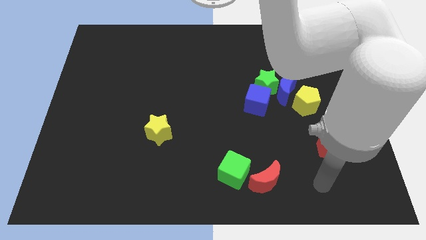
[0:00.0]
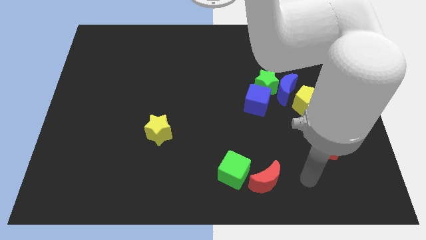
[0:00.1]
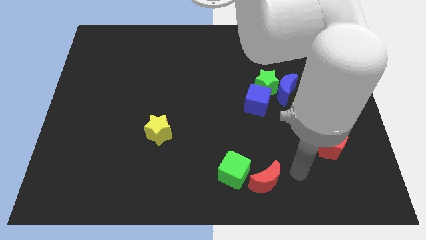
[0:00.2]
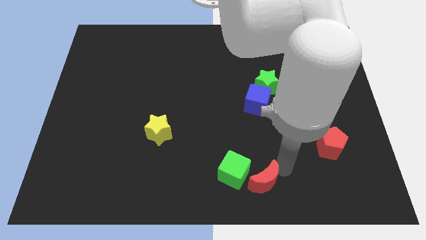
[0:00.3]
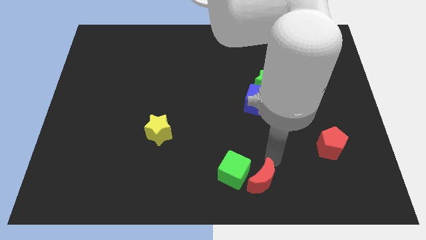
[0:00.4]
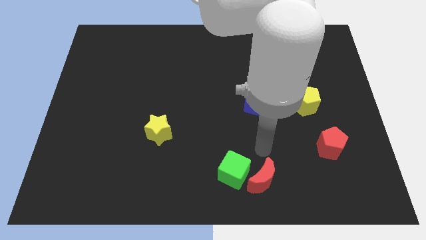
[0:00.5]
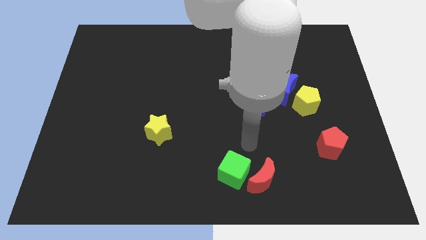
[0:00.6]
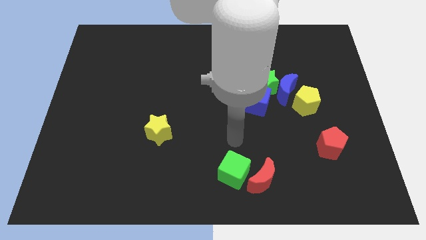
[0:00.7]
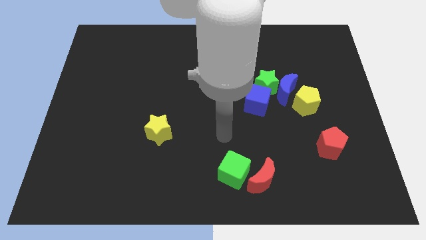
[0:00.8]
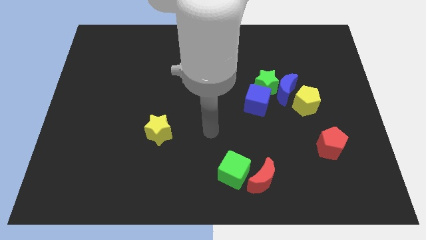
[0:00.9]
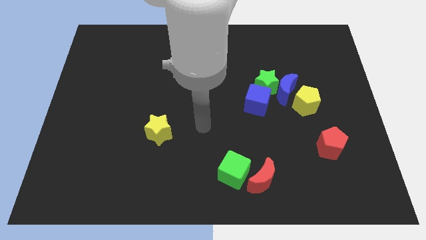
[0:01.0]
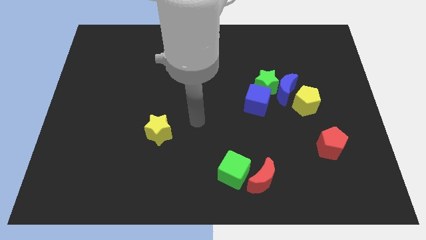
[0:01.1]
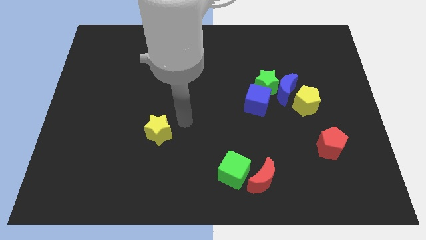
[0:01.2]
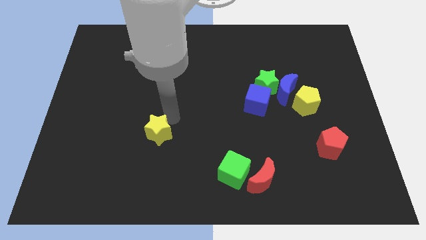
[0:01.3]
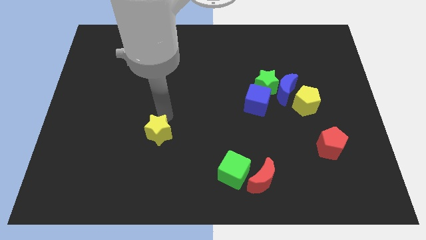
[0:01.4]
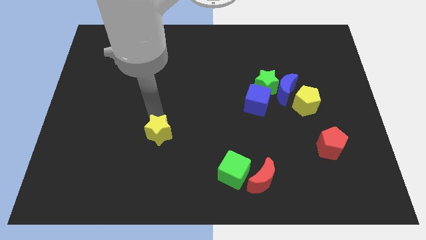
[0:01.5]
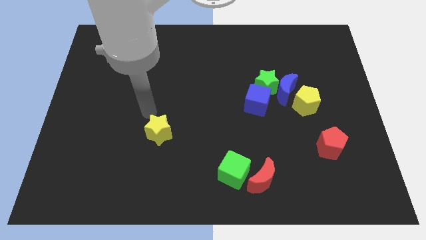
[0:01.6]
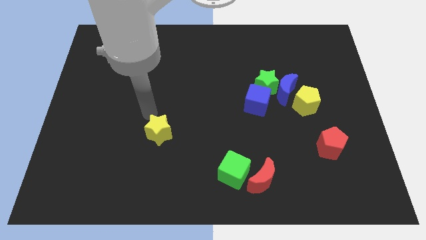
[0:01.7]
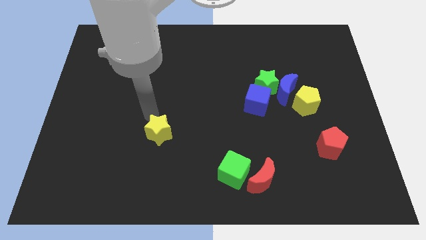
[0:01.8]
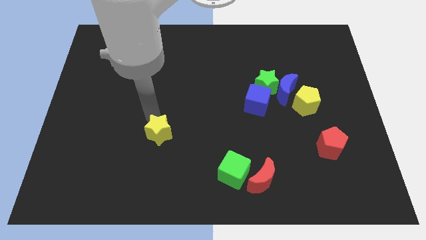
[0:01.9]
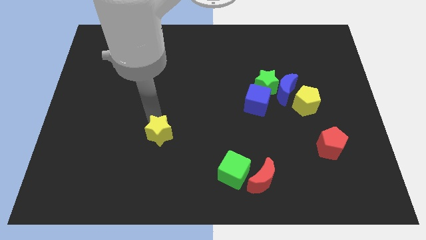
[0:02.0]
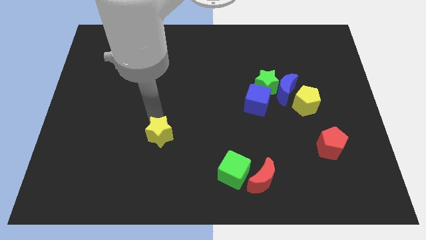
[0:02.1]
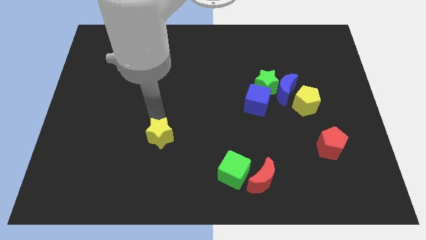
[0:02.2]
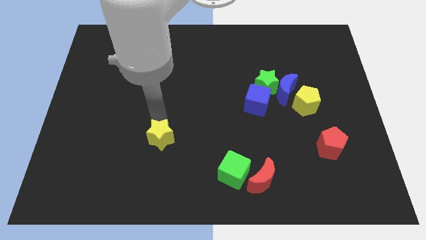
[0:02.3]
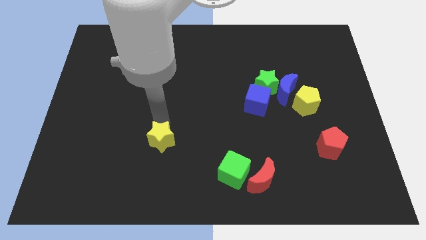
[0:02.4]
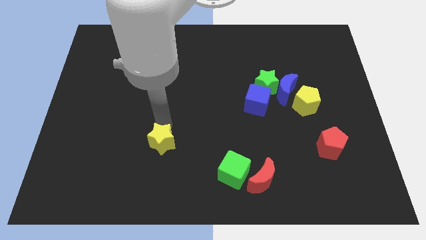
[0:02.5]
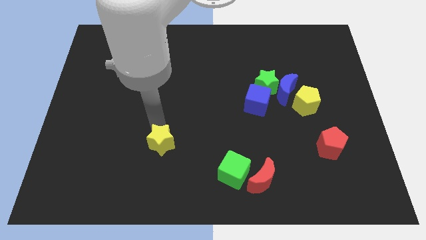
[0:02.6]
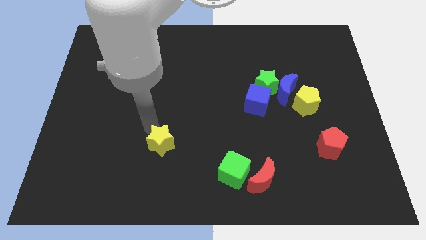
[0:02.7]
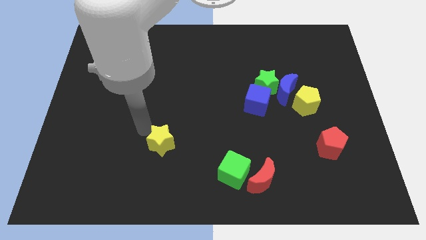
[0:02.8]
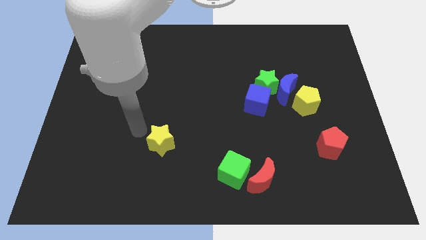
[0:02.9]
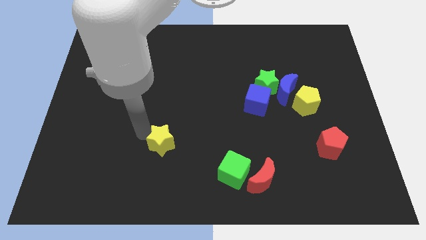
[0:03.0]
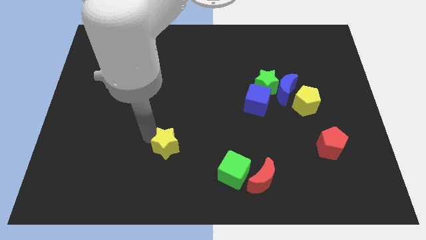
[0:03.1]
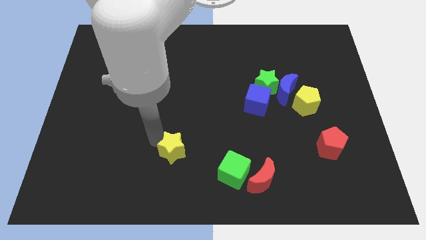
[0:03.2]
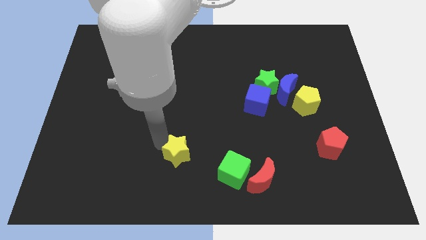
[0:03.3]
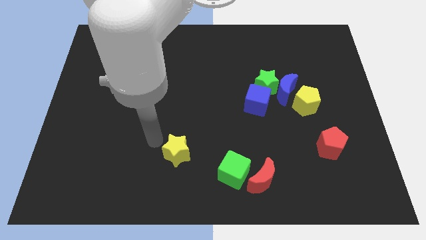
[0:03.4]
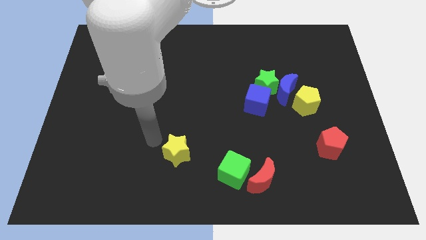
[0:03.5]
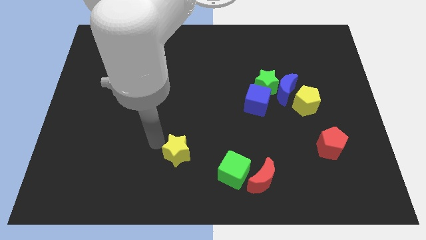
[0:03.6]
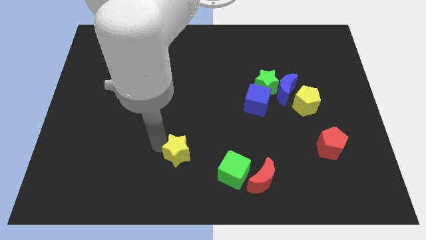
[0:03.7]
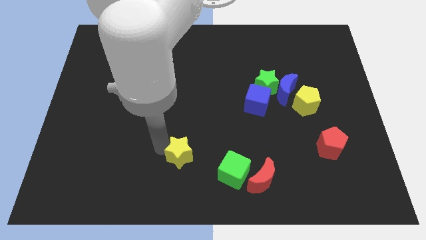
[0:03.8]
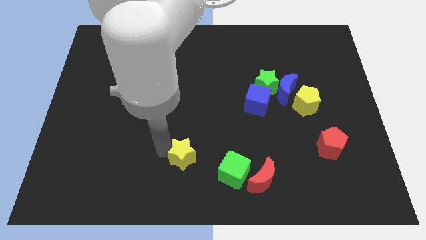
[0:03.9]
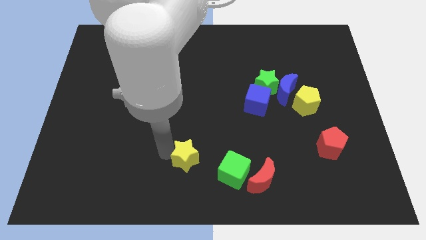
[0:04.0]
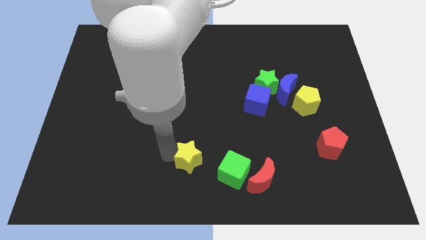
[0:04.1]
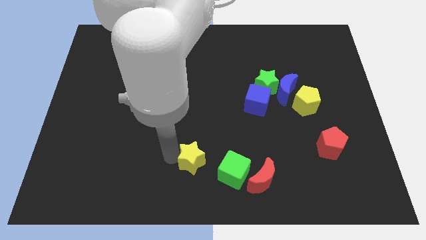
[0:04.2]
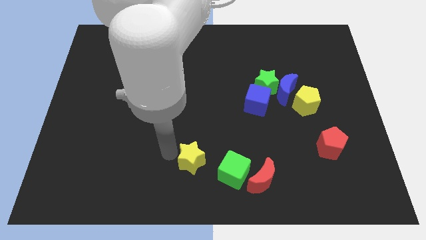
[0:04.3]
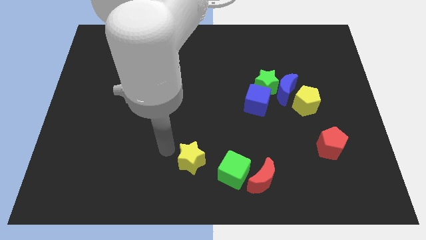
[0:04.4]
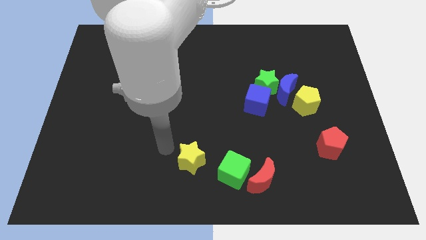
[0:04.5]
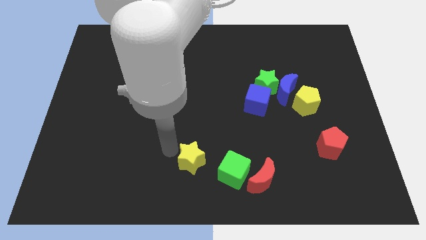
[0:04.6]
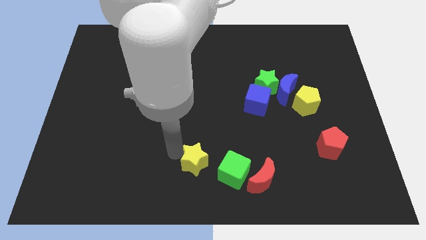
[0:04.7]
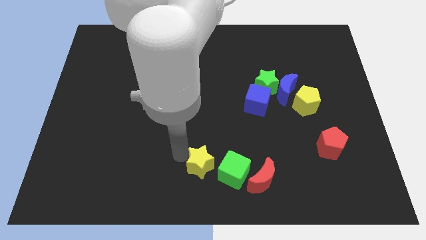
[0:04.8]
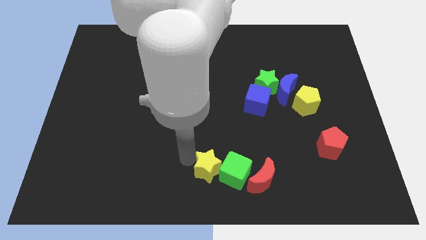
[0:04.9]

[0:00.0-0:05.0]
put the yellow star to the green cube

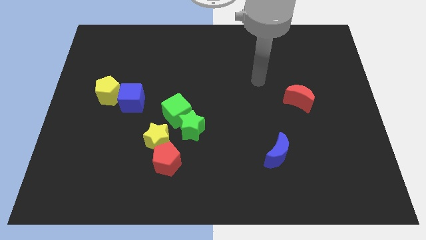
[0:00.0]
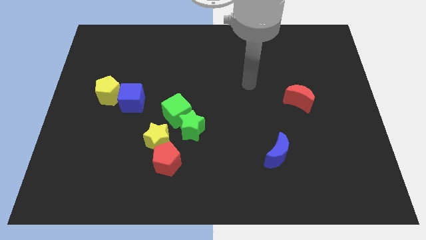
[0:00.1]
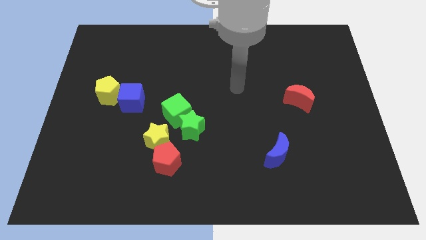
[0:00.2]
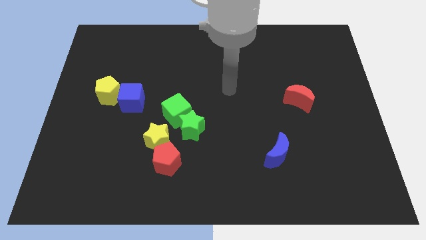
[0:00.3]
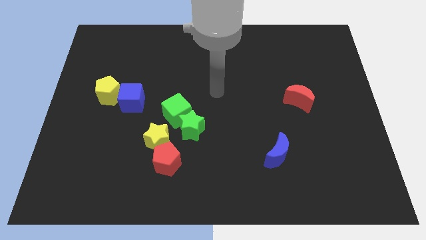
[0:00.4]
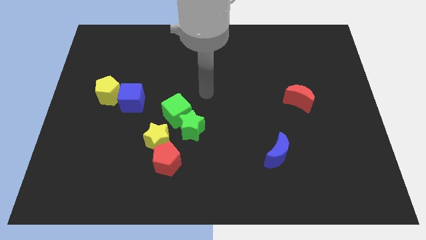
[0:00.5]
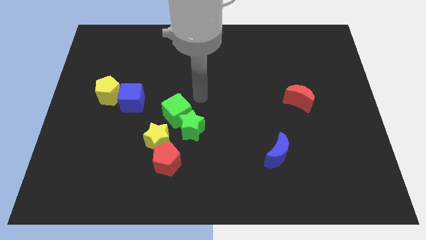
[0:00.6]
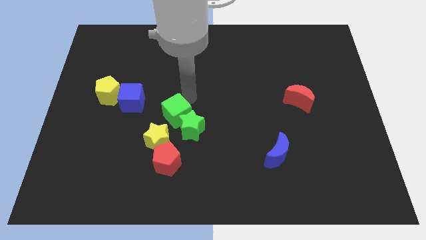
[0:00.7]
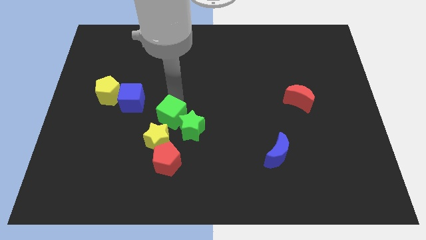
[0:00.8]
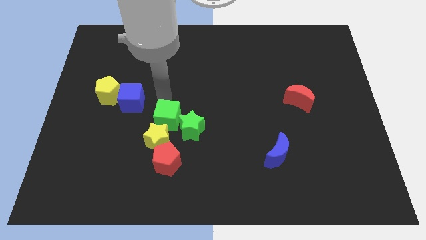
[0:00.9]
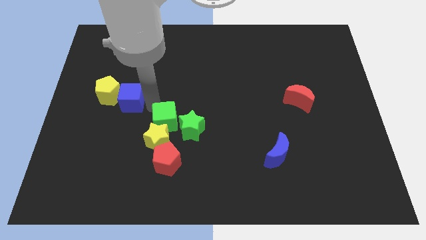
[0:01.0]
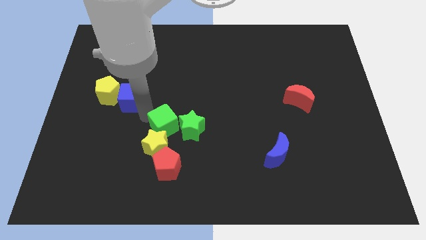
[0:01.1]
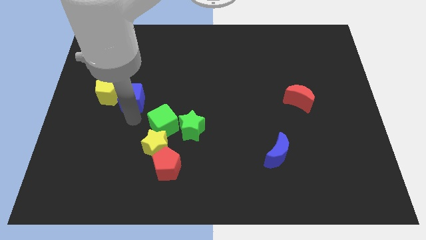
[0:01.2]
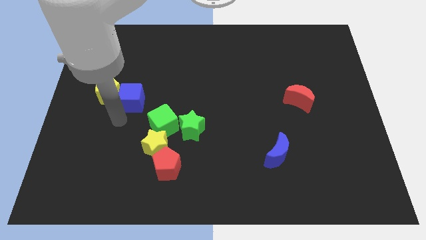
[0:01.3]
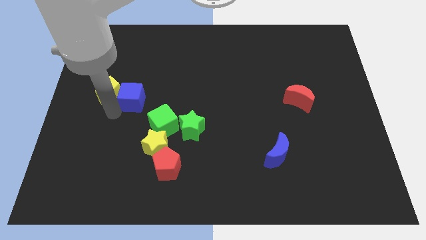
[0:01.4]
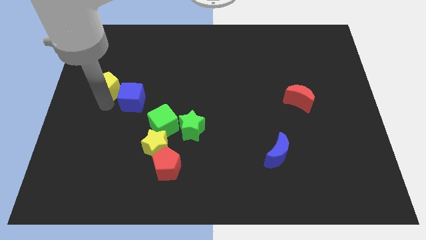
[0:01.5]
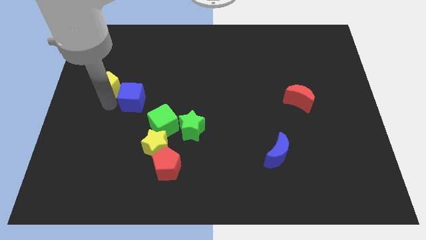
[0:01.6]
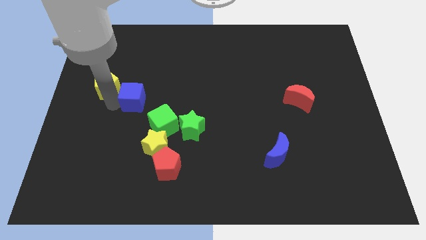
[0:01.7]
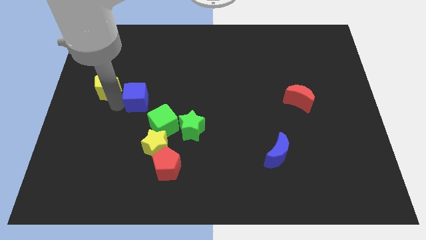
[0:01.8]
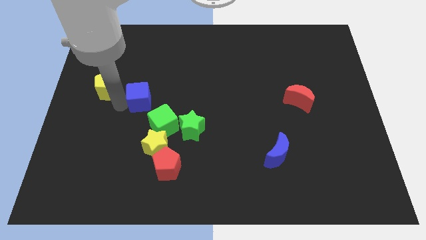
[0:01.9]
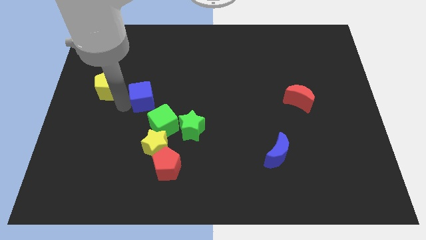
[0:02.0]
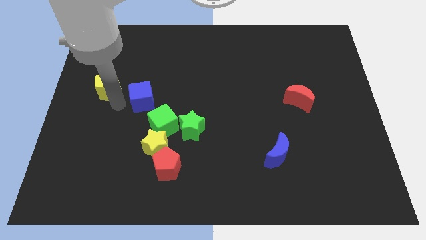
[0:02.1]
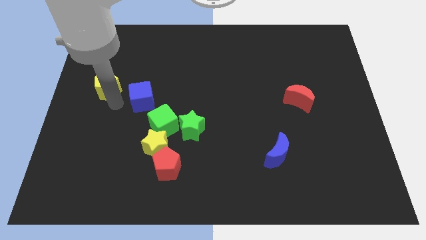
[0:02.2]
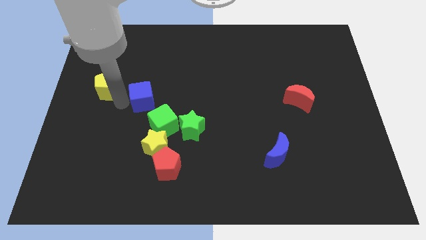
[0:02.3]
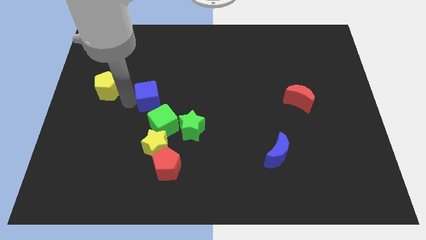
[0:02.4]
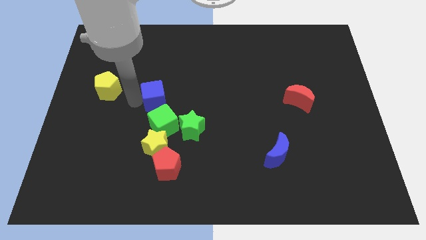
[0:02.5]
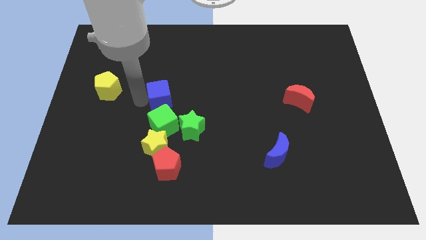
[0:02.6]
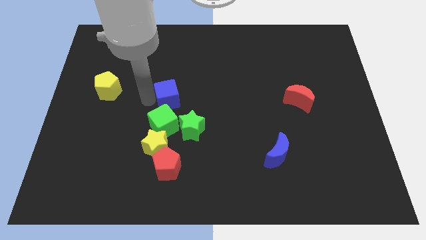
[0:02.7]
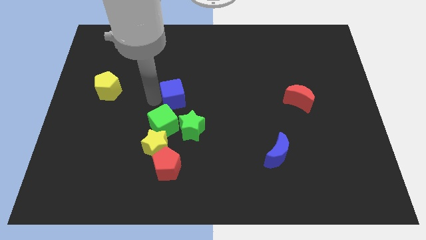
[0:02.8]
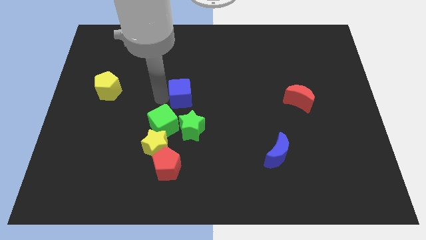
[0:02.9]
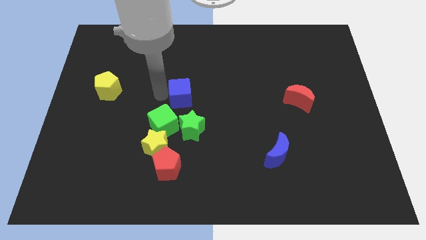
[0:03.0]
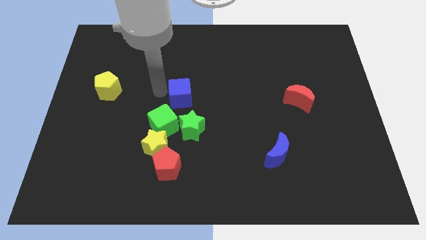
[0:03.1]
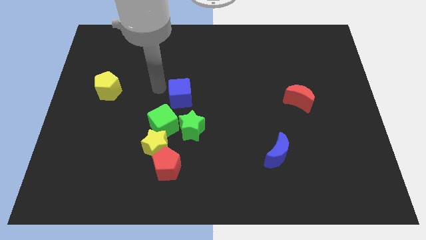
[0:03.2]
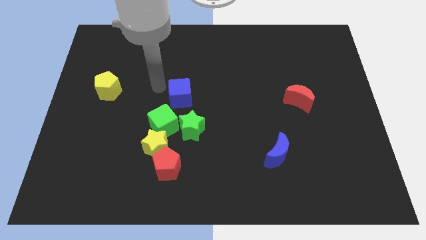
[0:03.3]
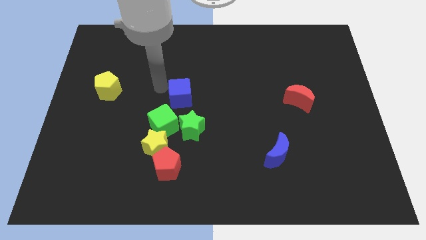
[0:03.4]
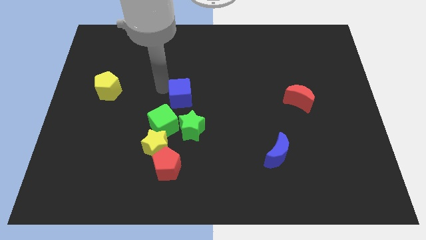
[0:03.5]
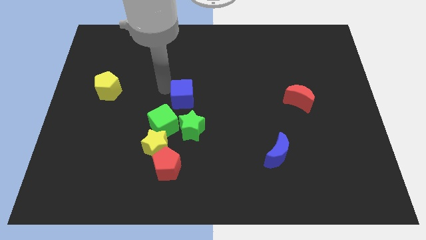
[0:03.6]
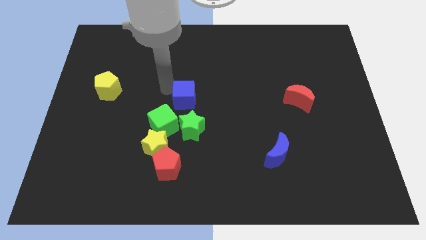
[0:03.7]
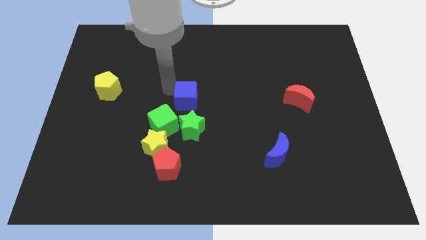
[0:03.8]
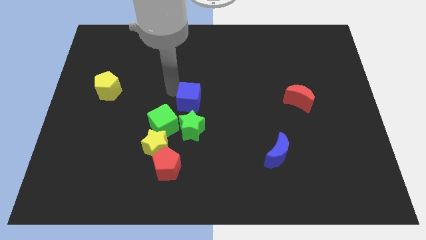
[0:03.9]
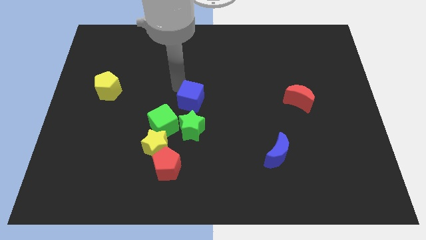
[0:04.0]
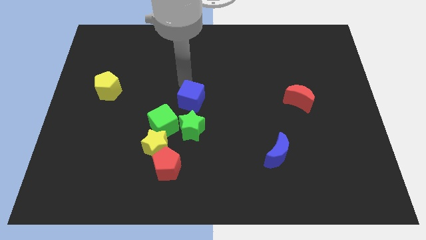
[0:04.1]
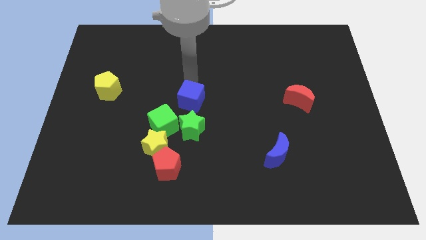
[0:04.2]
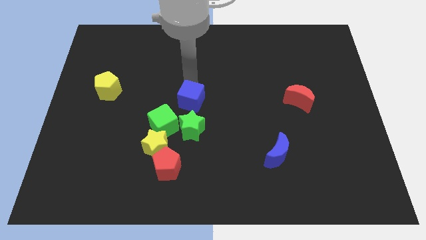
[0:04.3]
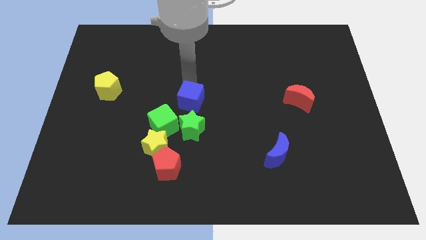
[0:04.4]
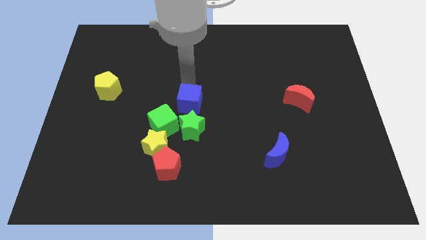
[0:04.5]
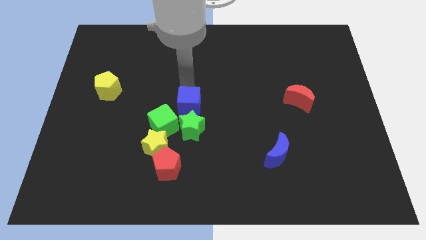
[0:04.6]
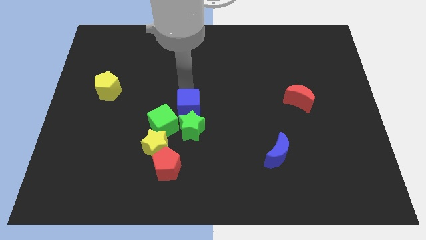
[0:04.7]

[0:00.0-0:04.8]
move the blue cube close to the green star
